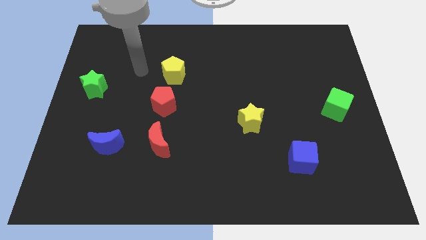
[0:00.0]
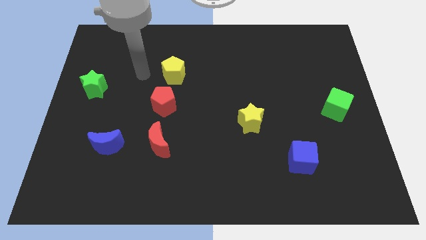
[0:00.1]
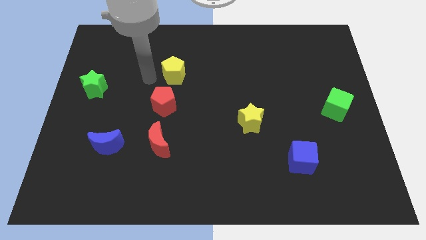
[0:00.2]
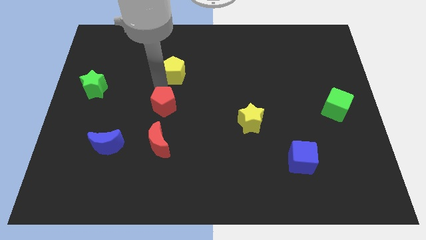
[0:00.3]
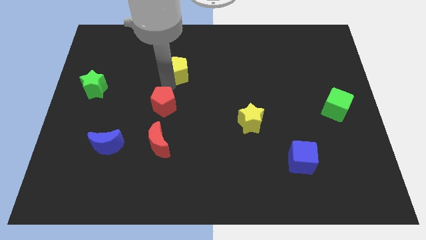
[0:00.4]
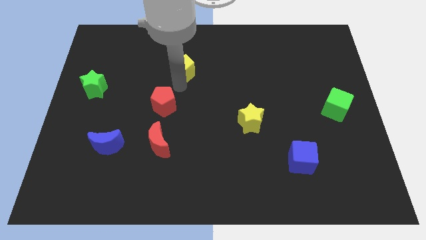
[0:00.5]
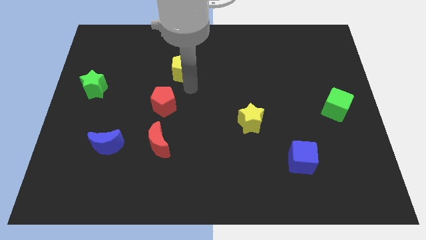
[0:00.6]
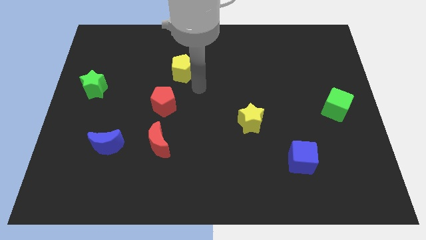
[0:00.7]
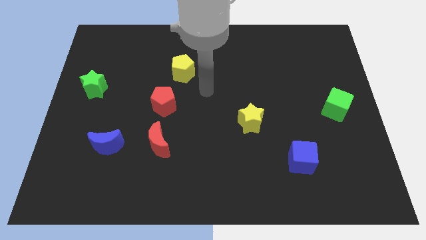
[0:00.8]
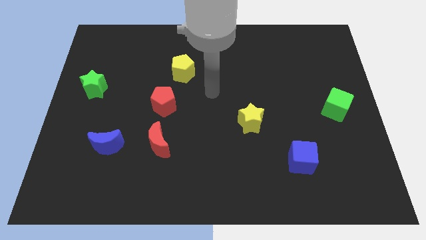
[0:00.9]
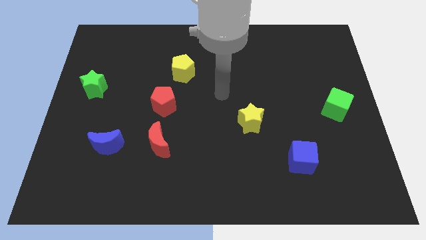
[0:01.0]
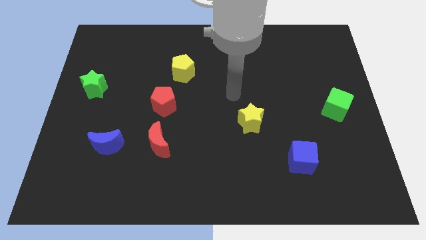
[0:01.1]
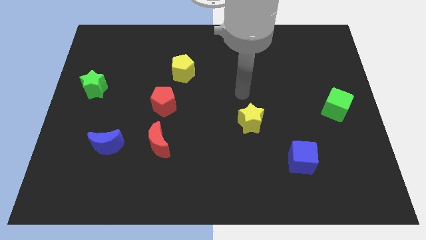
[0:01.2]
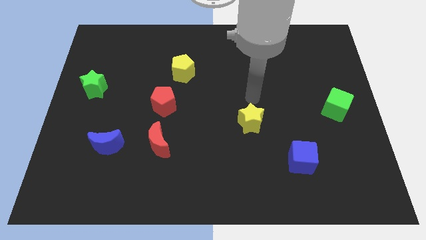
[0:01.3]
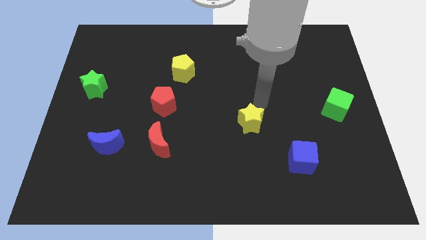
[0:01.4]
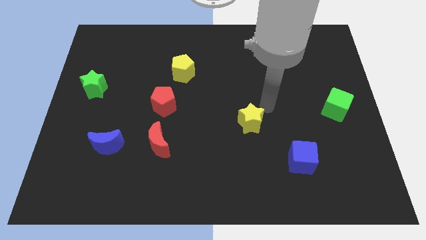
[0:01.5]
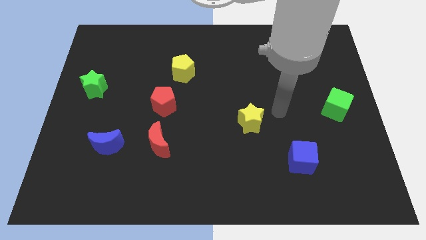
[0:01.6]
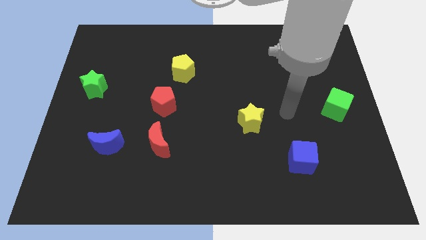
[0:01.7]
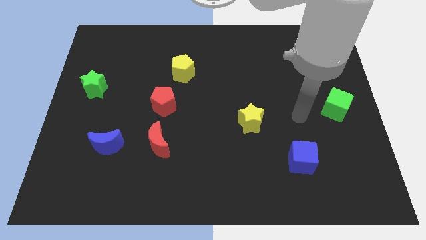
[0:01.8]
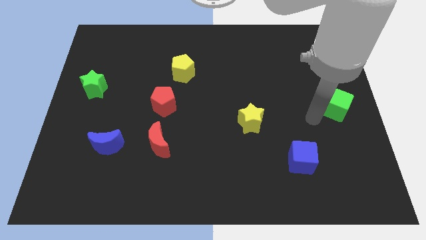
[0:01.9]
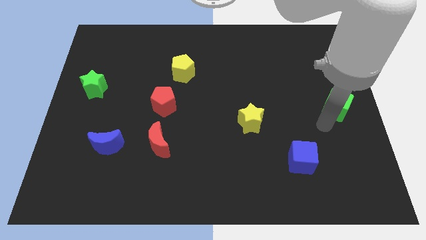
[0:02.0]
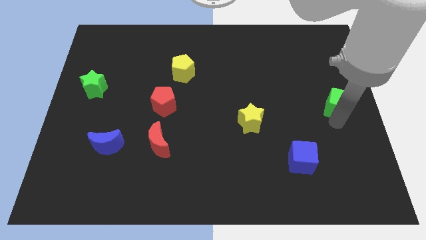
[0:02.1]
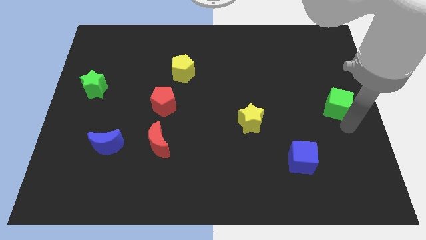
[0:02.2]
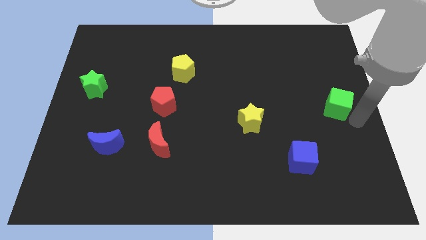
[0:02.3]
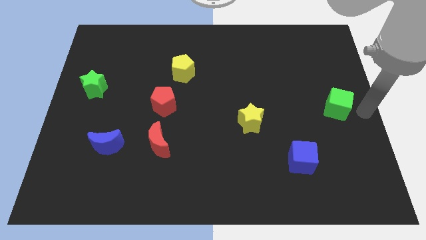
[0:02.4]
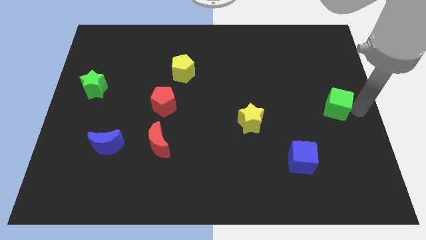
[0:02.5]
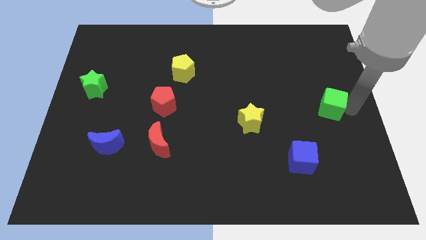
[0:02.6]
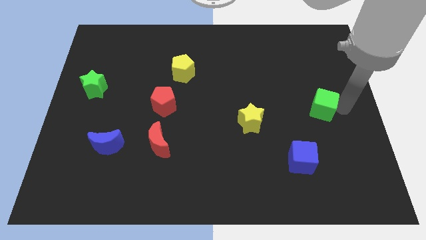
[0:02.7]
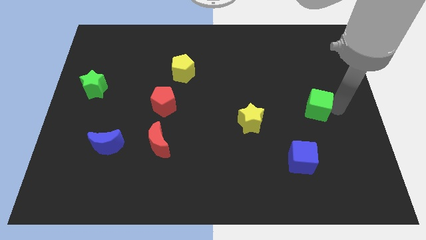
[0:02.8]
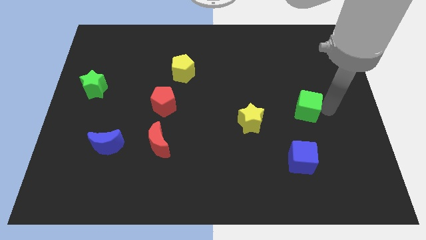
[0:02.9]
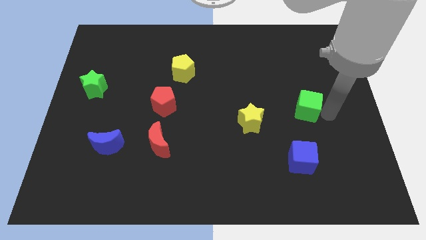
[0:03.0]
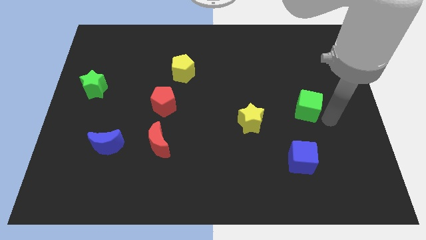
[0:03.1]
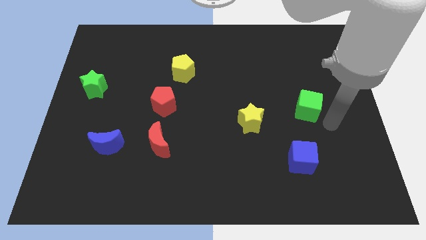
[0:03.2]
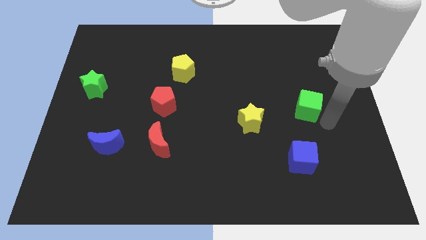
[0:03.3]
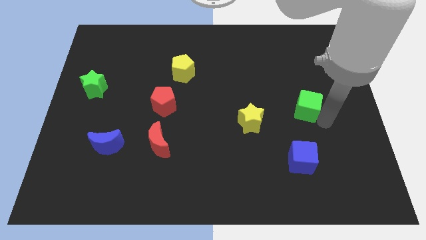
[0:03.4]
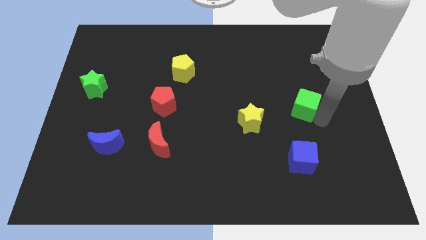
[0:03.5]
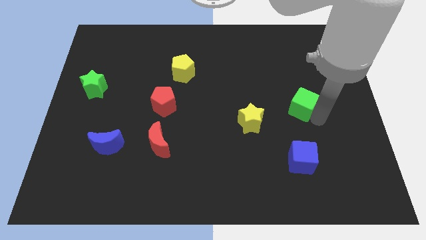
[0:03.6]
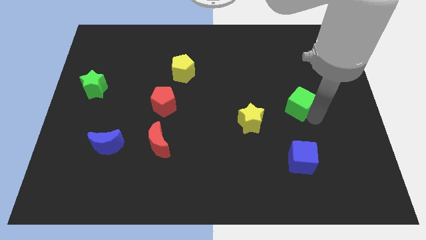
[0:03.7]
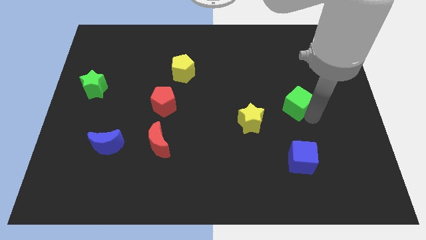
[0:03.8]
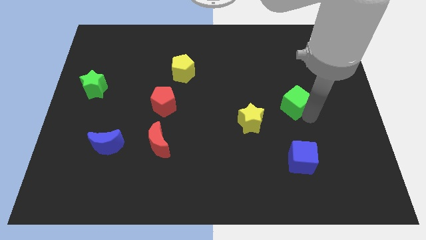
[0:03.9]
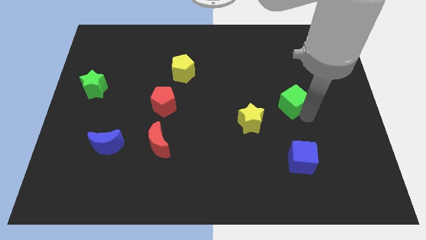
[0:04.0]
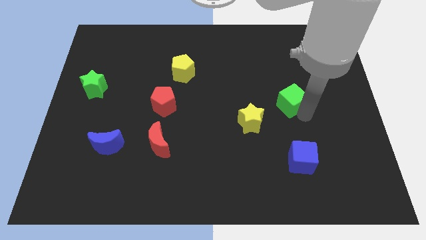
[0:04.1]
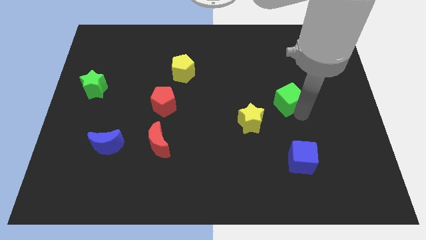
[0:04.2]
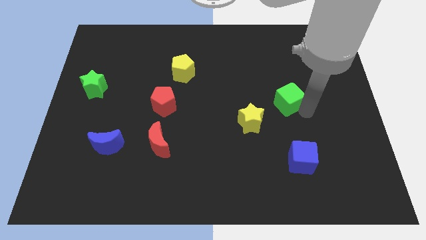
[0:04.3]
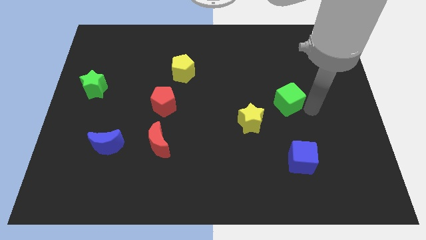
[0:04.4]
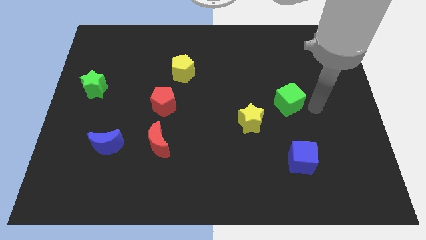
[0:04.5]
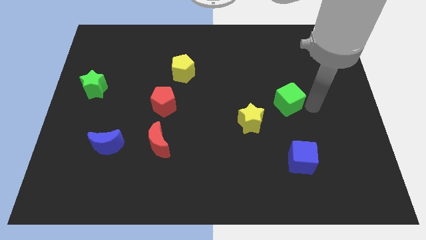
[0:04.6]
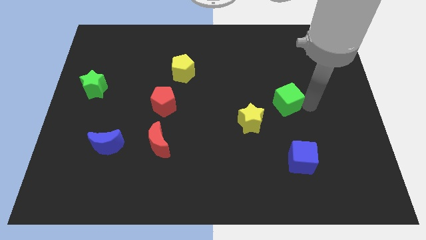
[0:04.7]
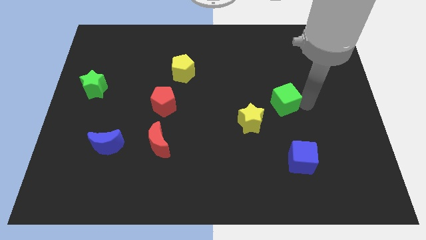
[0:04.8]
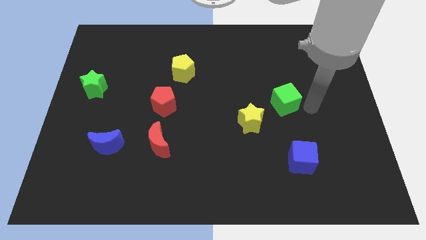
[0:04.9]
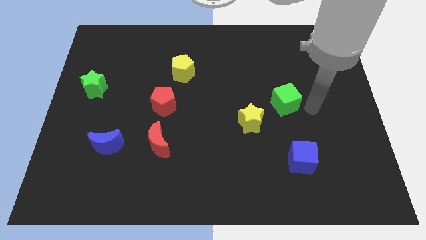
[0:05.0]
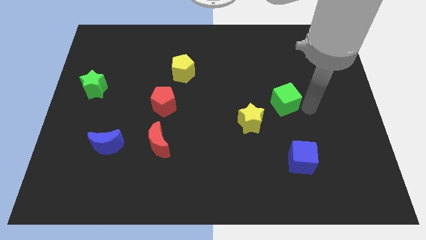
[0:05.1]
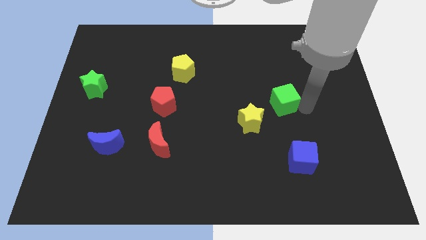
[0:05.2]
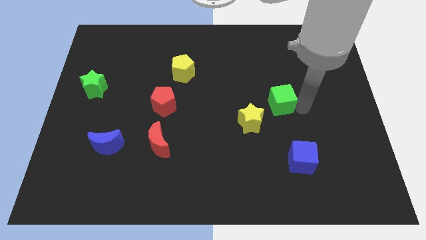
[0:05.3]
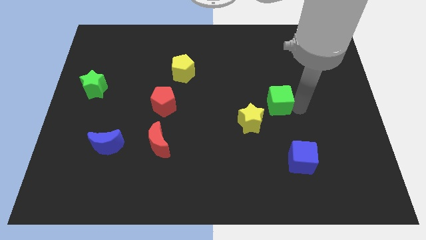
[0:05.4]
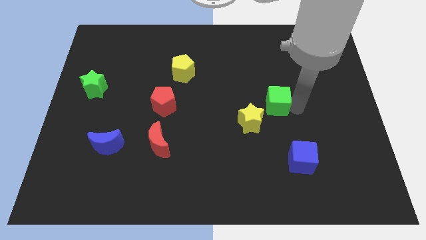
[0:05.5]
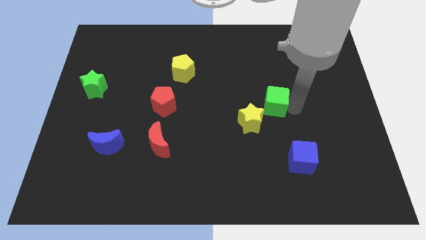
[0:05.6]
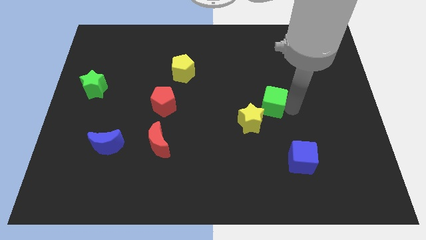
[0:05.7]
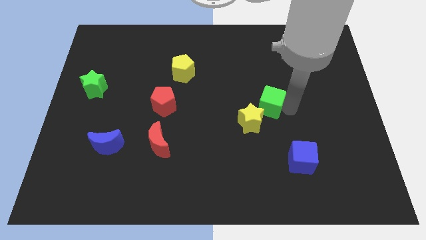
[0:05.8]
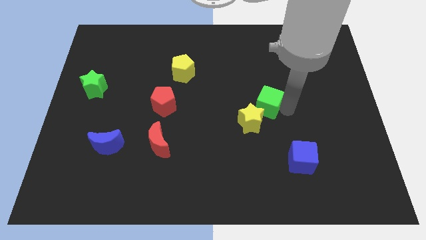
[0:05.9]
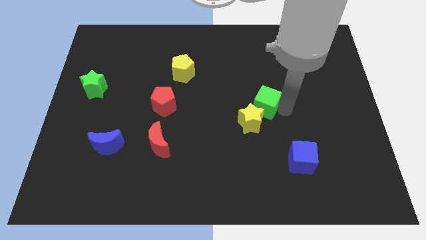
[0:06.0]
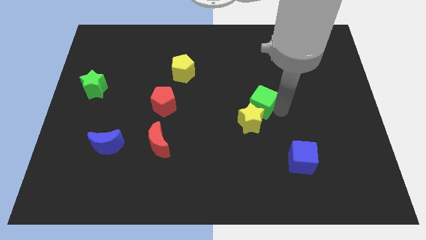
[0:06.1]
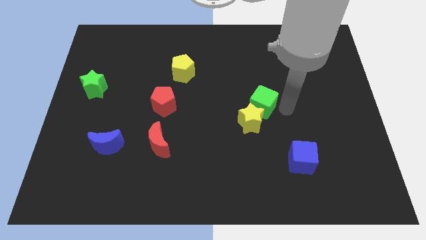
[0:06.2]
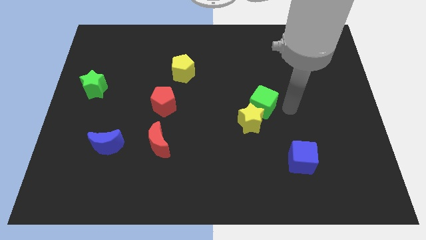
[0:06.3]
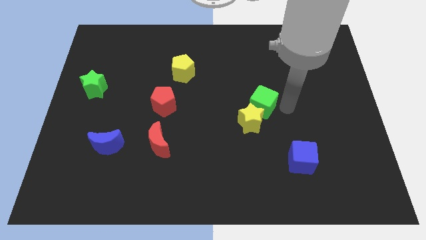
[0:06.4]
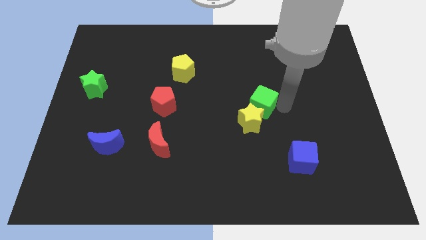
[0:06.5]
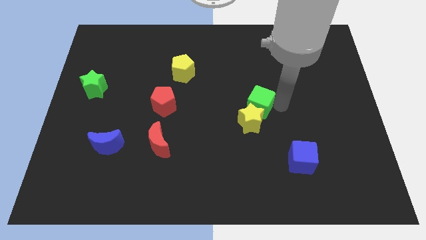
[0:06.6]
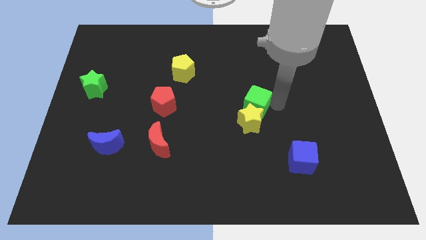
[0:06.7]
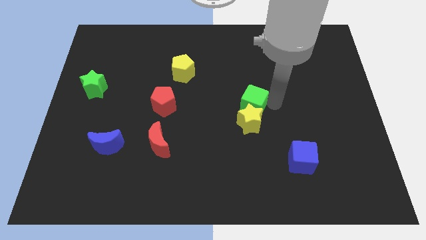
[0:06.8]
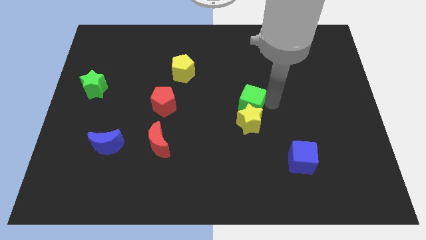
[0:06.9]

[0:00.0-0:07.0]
move the green cube to the left

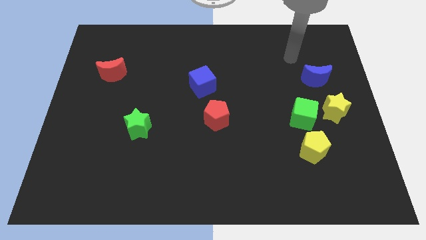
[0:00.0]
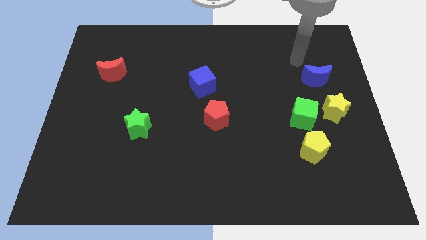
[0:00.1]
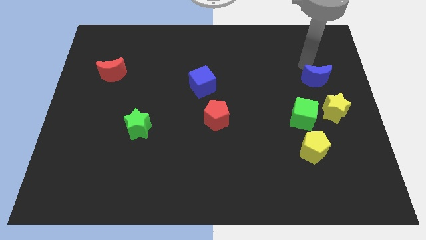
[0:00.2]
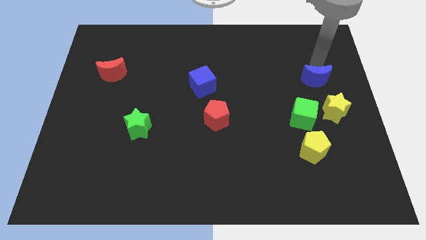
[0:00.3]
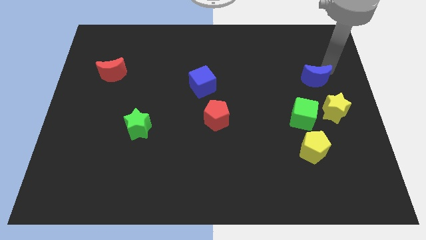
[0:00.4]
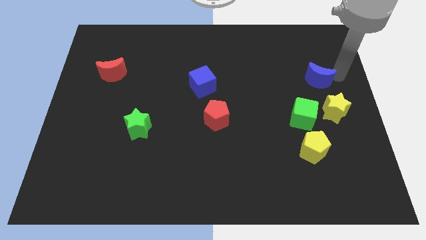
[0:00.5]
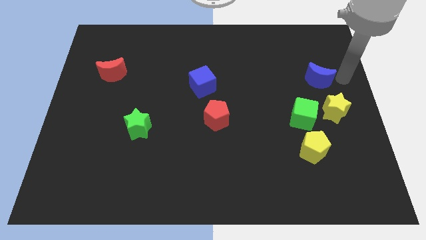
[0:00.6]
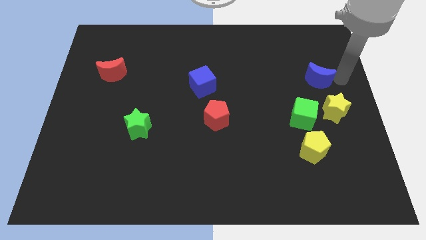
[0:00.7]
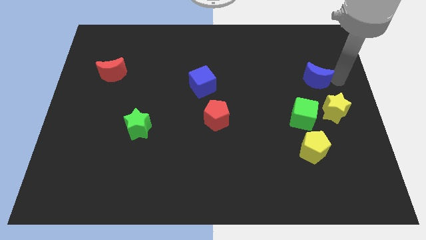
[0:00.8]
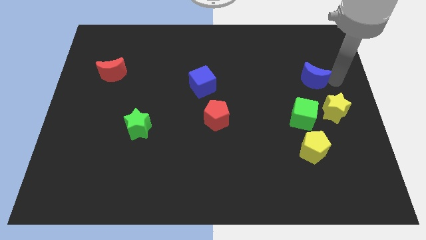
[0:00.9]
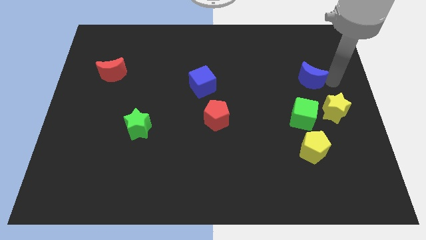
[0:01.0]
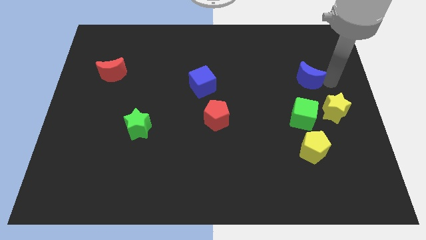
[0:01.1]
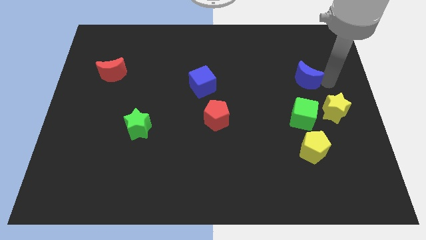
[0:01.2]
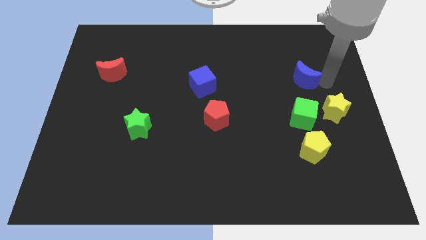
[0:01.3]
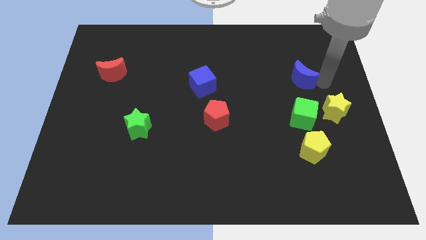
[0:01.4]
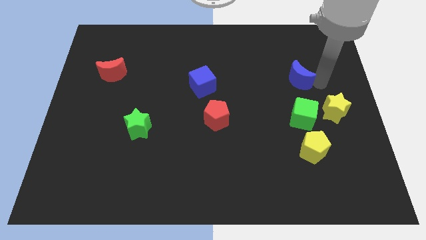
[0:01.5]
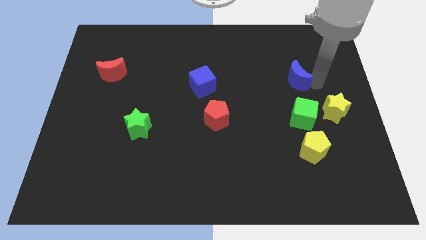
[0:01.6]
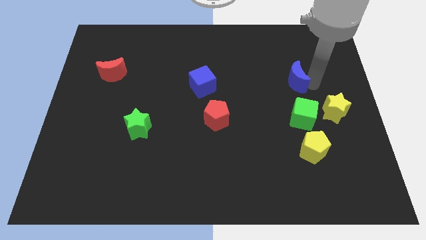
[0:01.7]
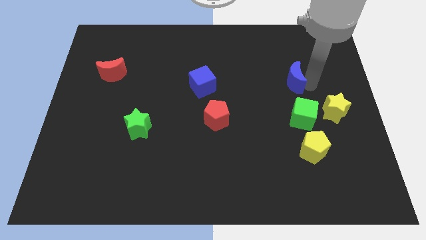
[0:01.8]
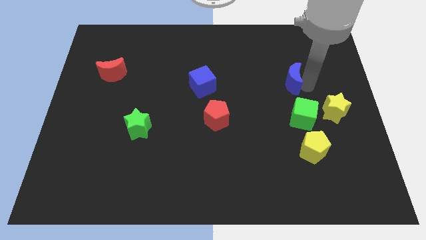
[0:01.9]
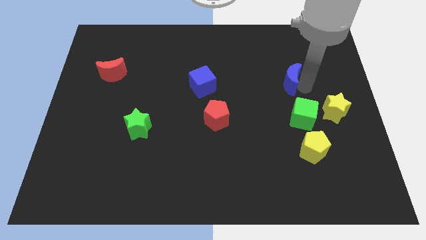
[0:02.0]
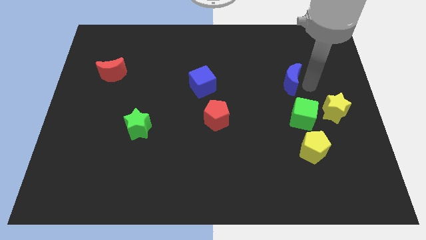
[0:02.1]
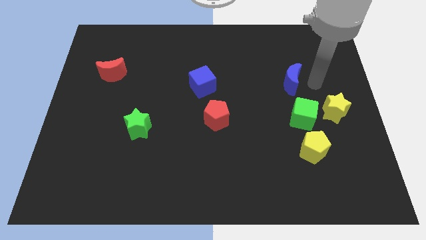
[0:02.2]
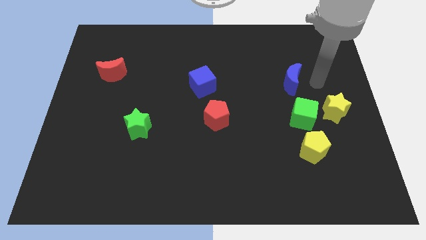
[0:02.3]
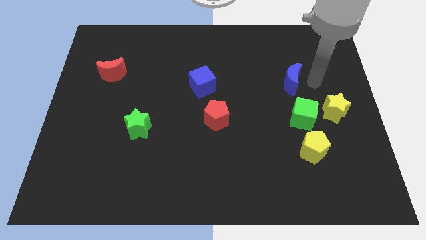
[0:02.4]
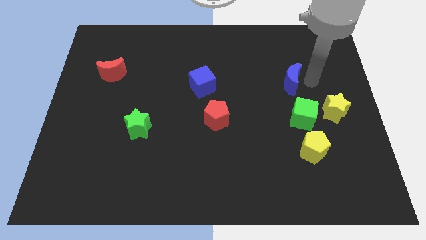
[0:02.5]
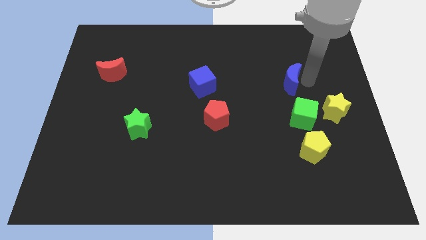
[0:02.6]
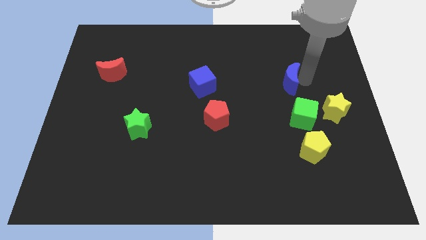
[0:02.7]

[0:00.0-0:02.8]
slightly slide the blue moon left
